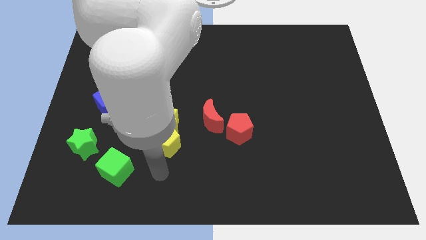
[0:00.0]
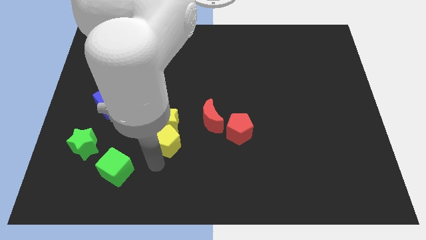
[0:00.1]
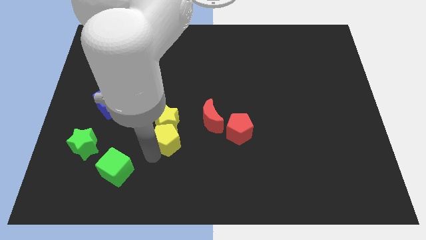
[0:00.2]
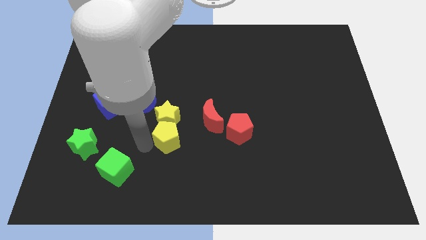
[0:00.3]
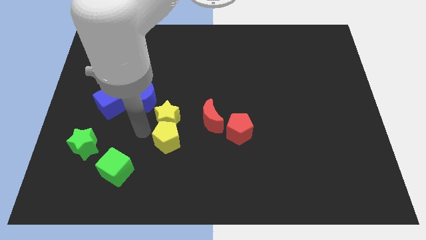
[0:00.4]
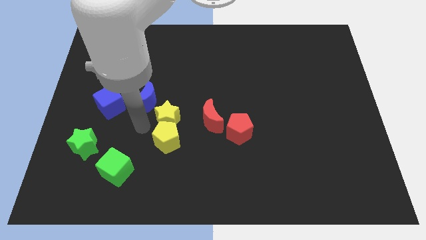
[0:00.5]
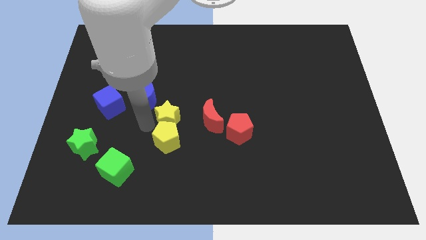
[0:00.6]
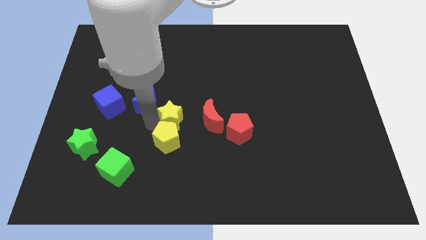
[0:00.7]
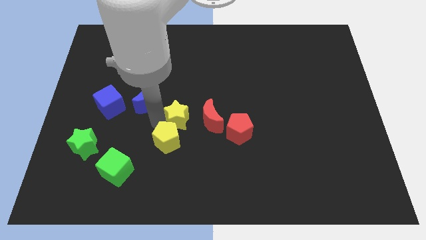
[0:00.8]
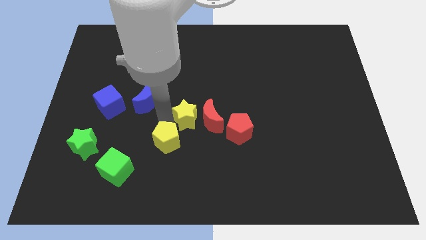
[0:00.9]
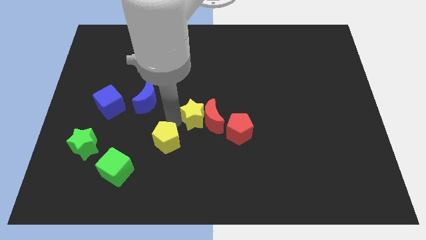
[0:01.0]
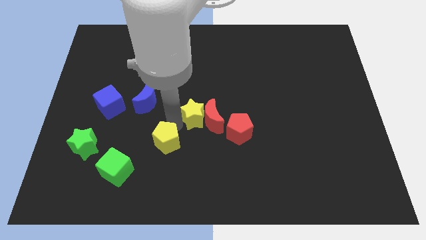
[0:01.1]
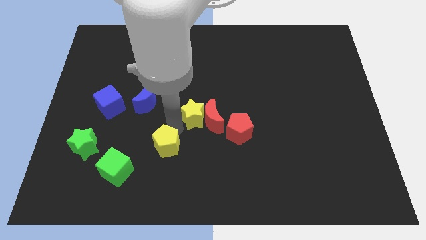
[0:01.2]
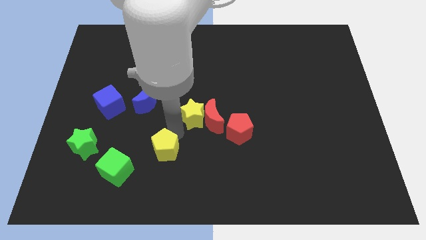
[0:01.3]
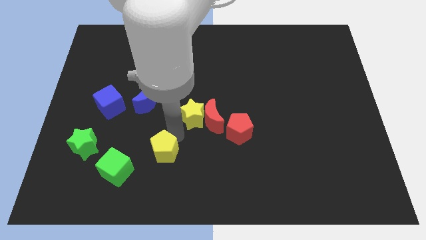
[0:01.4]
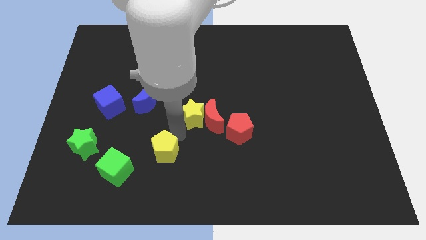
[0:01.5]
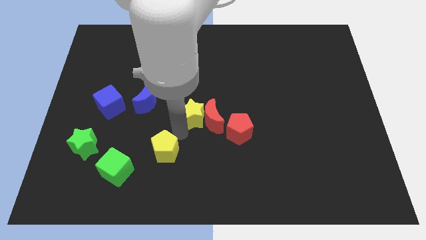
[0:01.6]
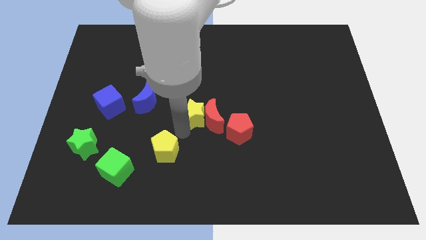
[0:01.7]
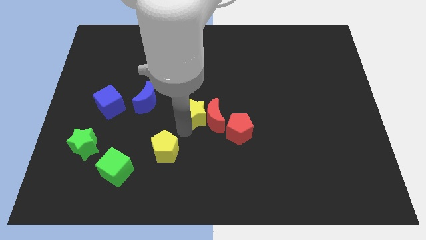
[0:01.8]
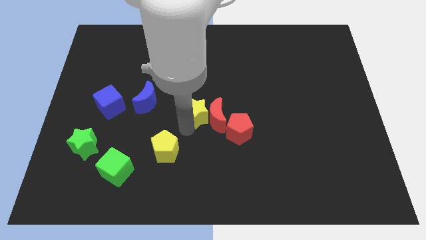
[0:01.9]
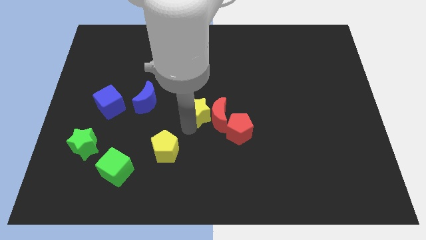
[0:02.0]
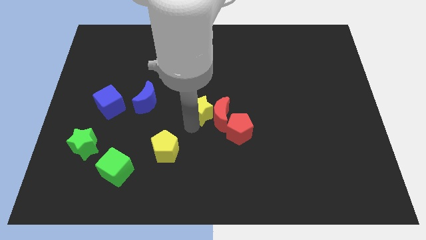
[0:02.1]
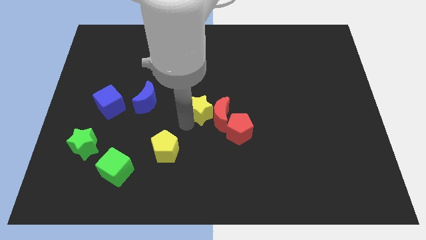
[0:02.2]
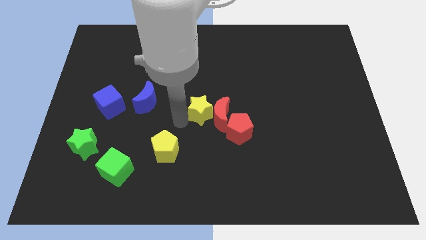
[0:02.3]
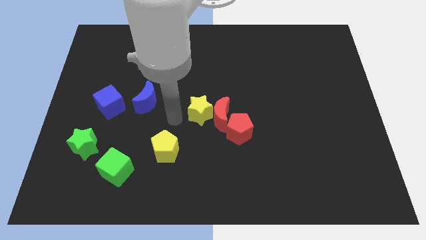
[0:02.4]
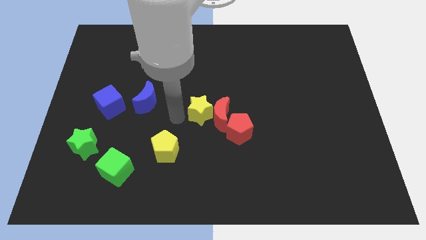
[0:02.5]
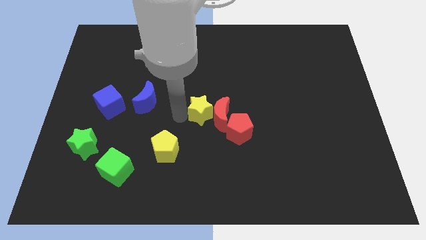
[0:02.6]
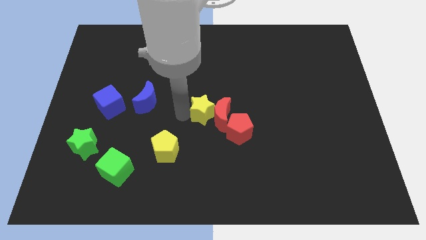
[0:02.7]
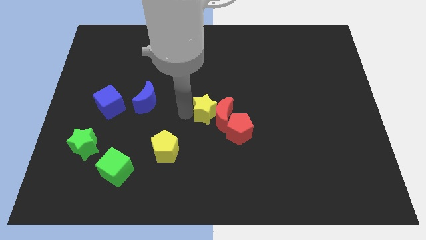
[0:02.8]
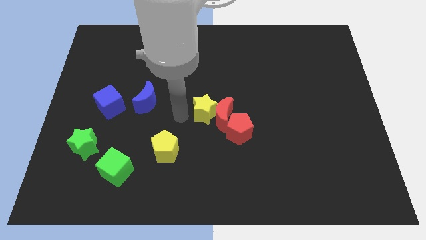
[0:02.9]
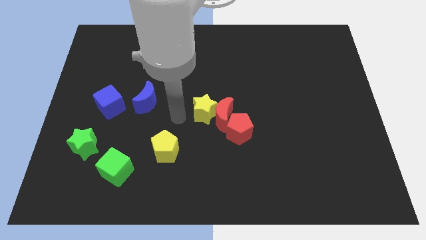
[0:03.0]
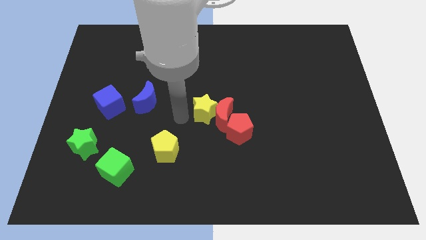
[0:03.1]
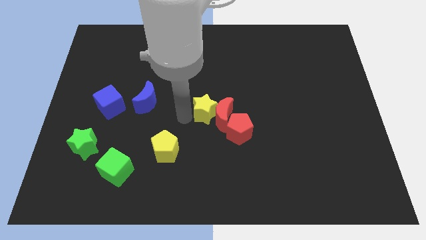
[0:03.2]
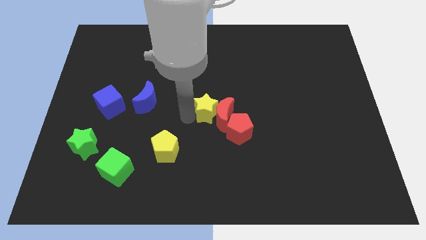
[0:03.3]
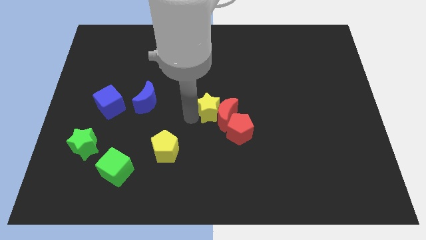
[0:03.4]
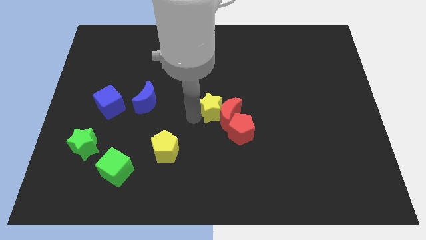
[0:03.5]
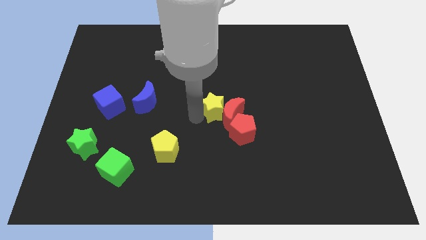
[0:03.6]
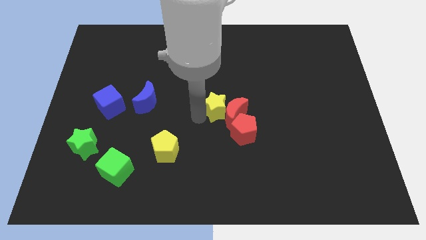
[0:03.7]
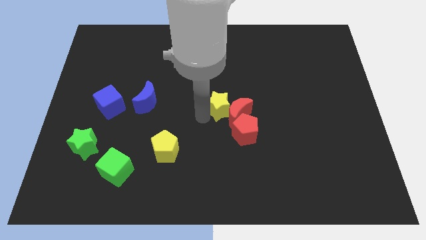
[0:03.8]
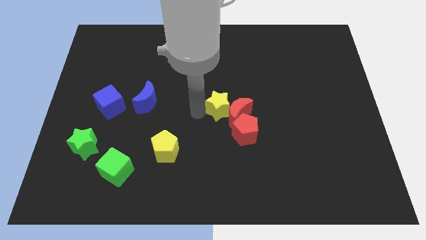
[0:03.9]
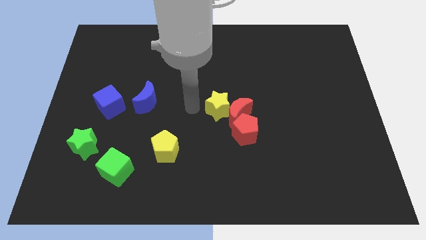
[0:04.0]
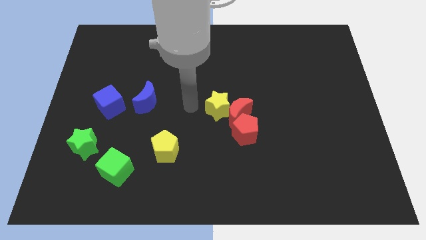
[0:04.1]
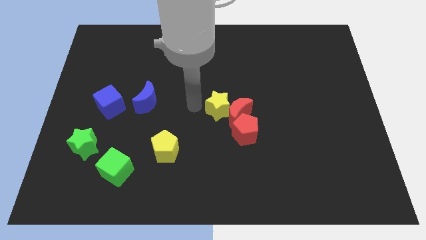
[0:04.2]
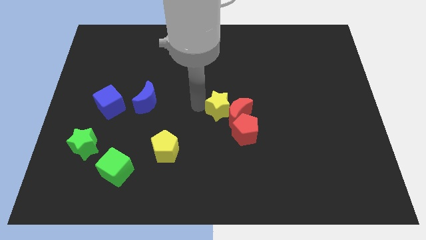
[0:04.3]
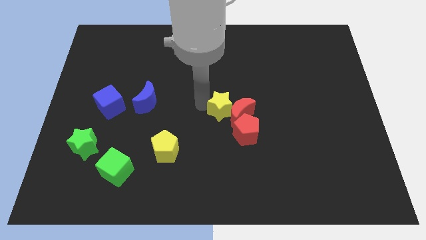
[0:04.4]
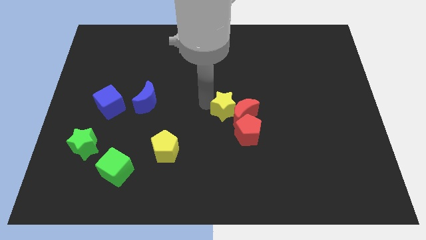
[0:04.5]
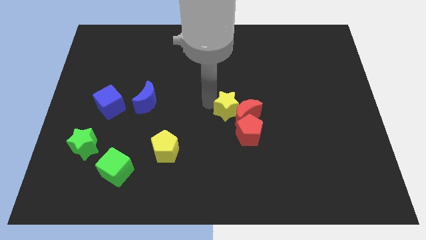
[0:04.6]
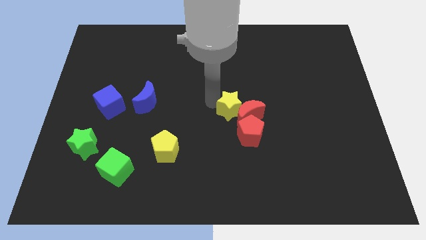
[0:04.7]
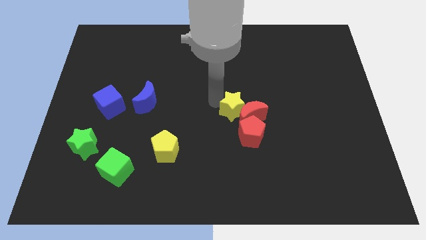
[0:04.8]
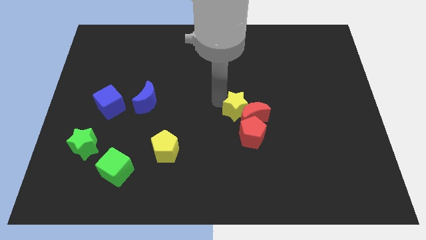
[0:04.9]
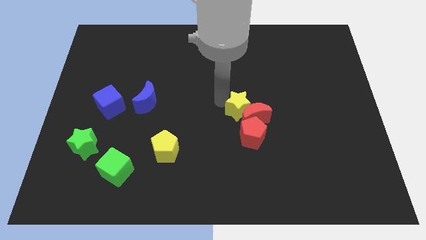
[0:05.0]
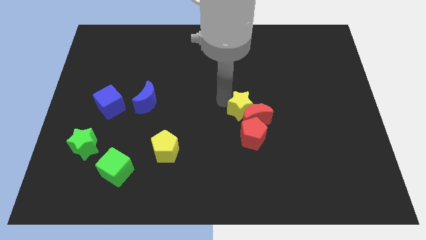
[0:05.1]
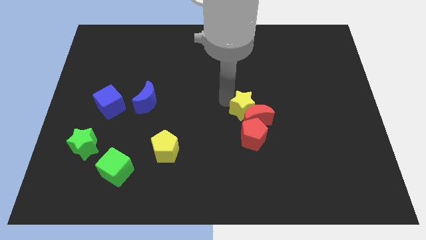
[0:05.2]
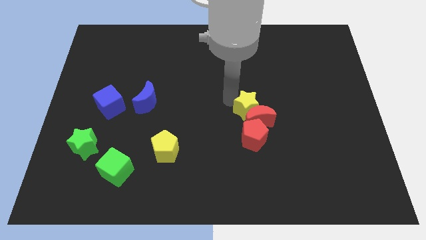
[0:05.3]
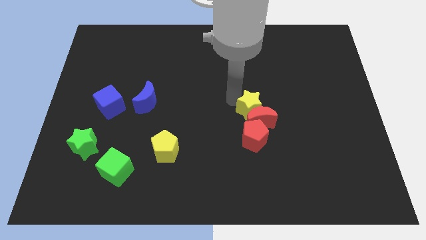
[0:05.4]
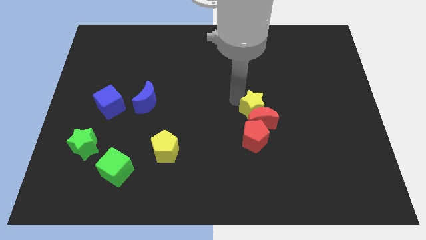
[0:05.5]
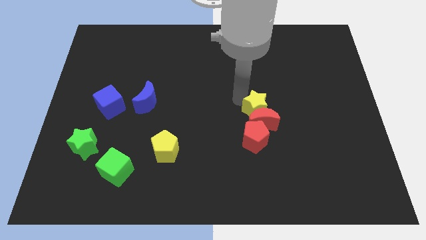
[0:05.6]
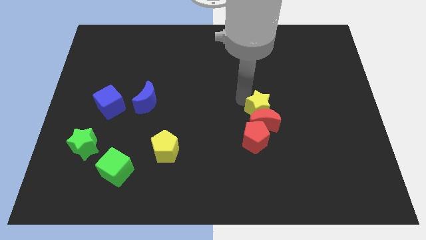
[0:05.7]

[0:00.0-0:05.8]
slide the yellow star right

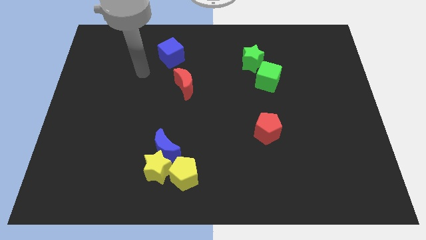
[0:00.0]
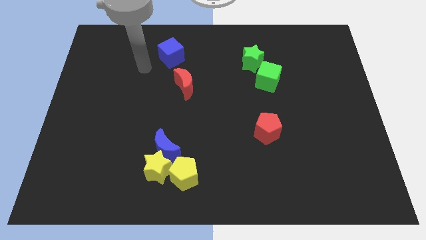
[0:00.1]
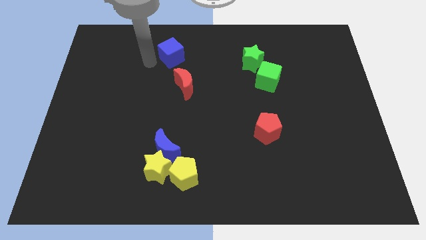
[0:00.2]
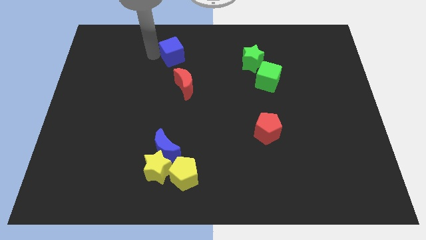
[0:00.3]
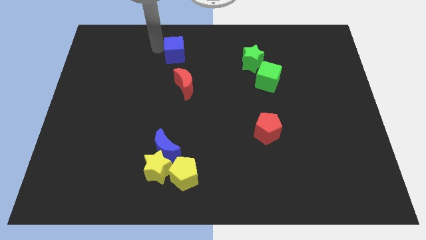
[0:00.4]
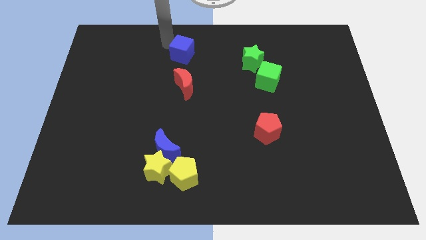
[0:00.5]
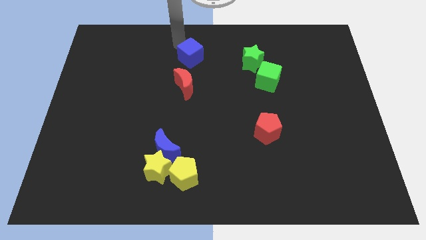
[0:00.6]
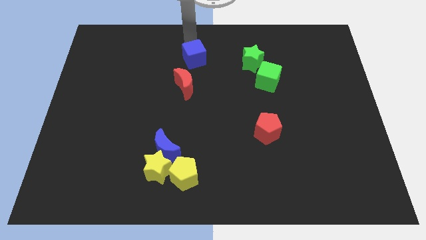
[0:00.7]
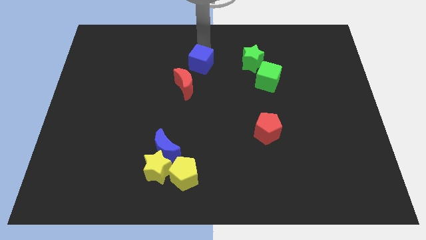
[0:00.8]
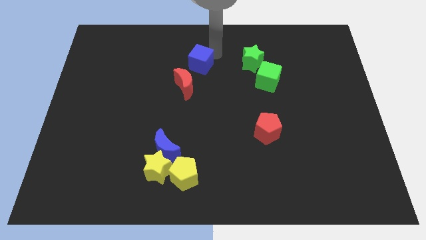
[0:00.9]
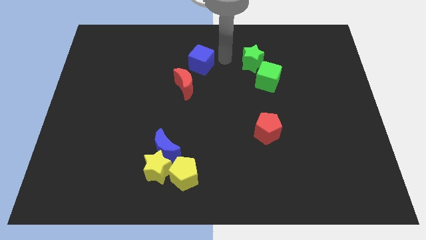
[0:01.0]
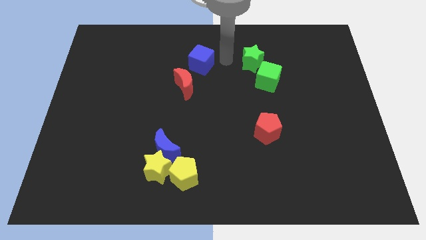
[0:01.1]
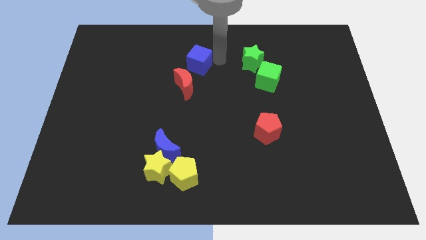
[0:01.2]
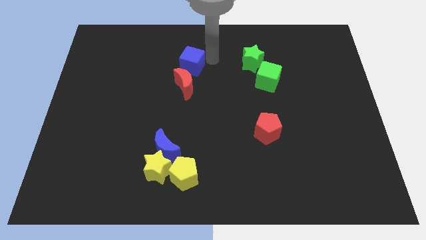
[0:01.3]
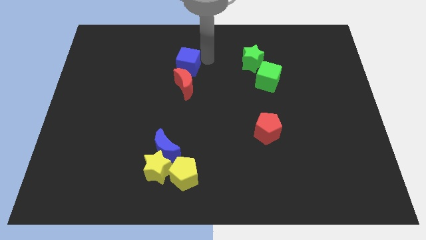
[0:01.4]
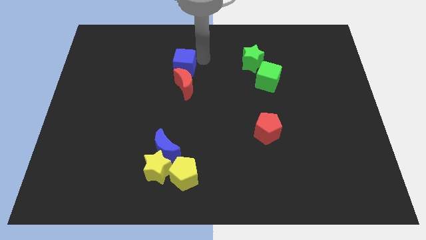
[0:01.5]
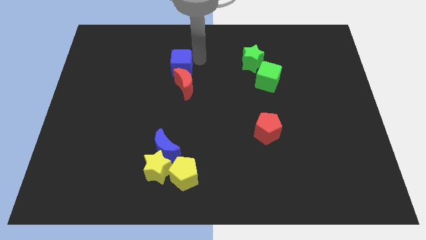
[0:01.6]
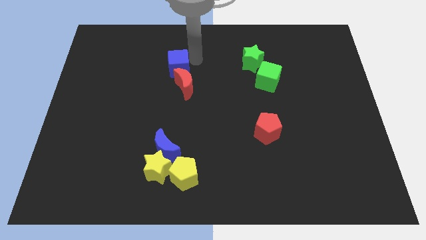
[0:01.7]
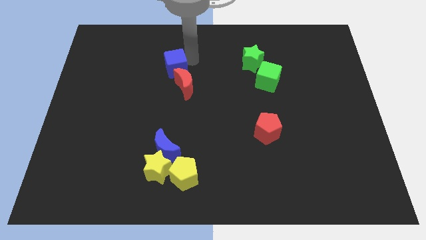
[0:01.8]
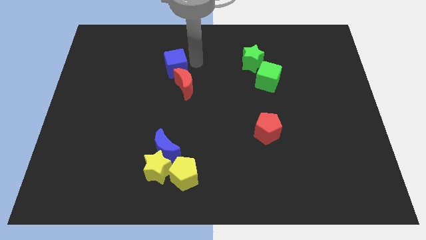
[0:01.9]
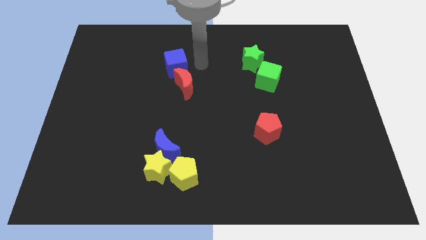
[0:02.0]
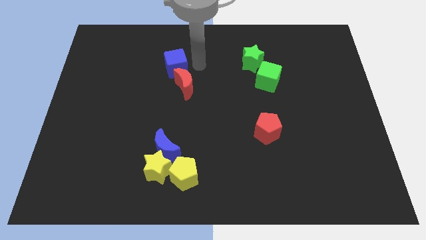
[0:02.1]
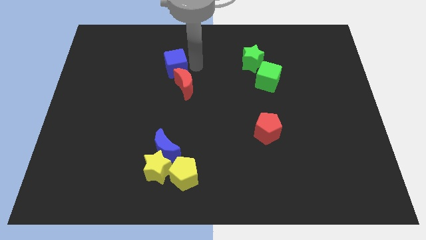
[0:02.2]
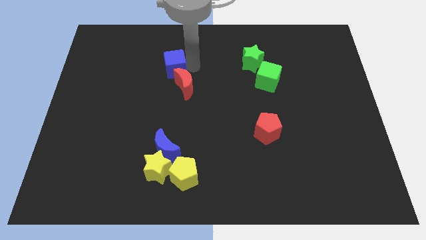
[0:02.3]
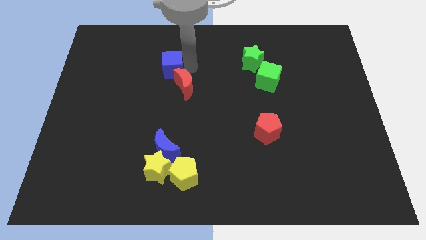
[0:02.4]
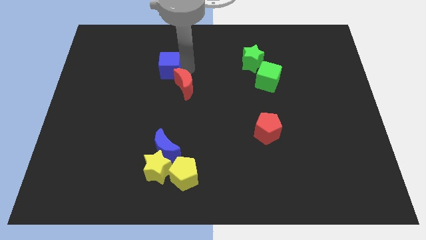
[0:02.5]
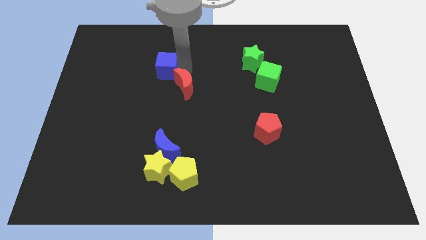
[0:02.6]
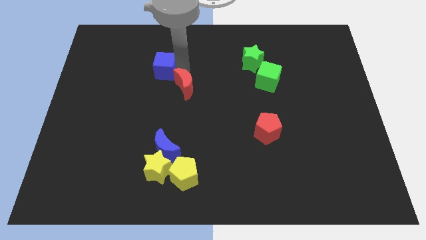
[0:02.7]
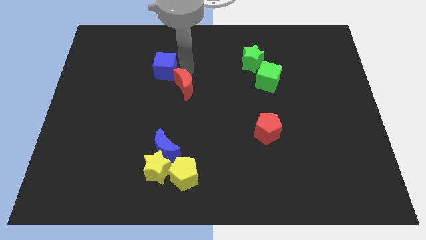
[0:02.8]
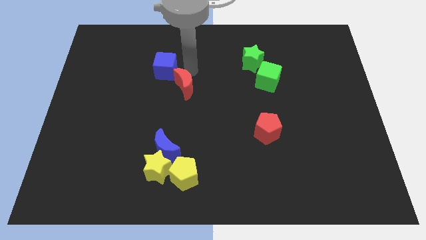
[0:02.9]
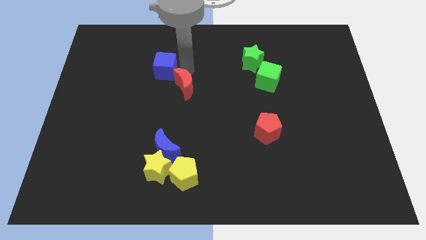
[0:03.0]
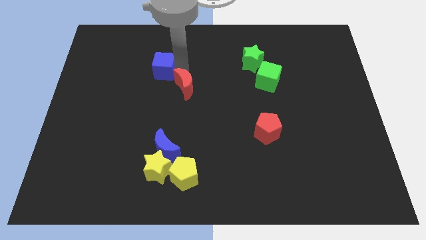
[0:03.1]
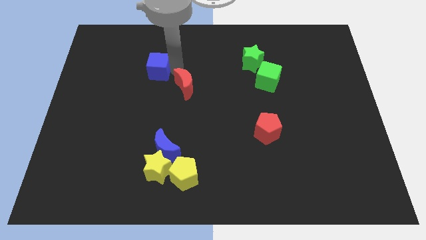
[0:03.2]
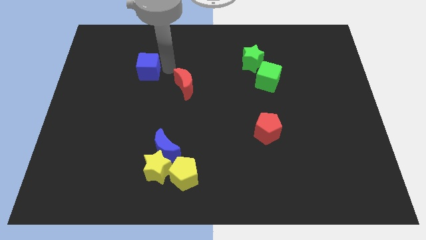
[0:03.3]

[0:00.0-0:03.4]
move the blue cube downwards and to the left slightly
